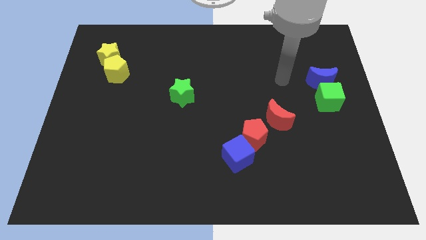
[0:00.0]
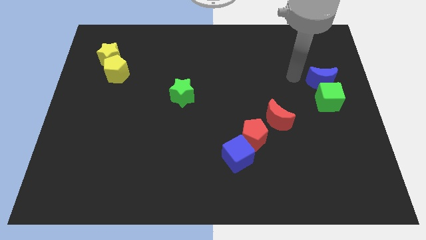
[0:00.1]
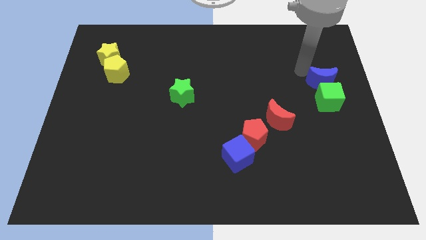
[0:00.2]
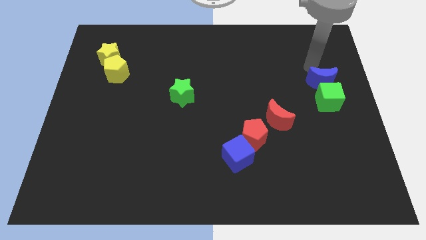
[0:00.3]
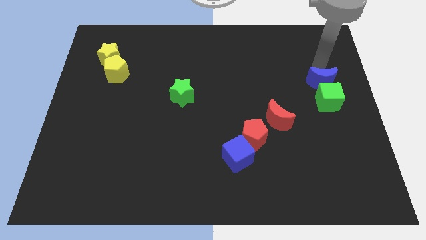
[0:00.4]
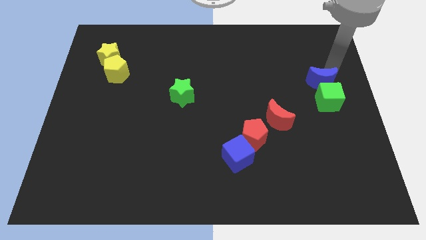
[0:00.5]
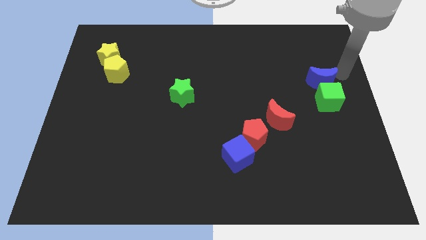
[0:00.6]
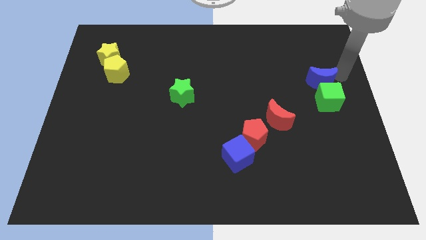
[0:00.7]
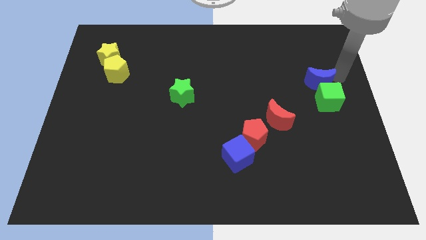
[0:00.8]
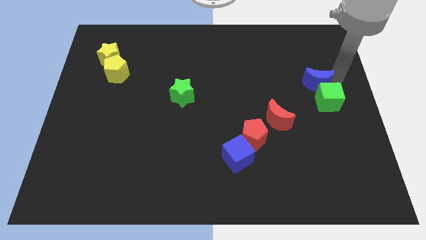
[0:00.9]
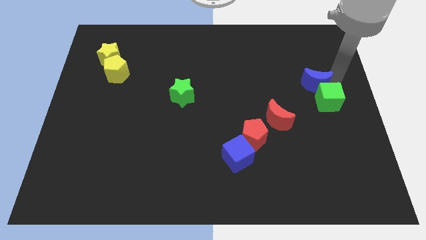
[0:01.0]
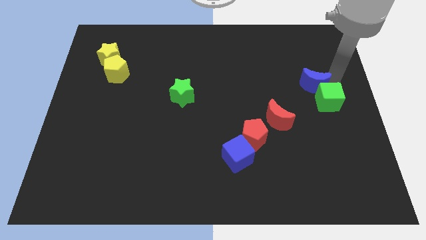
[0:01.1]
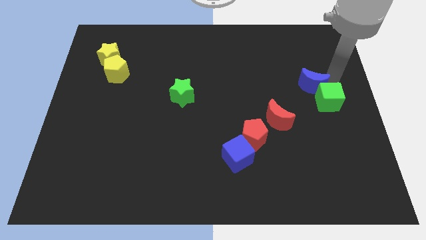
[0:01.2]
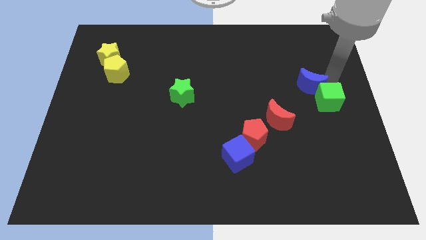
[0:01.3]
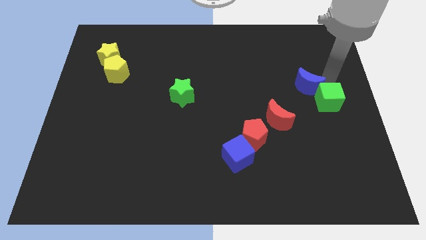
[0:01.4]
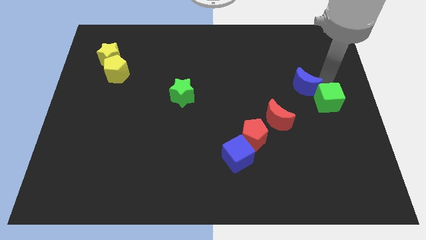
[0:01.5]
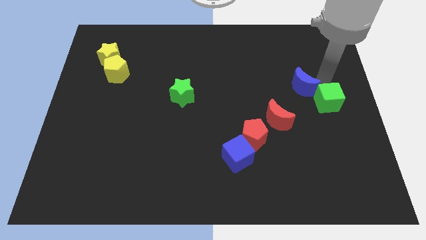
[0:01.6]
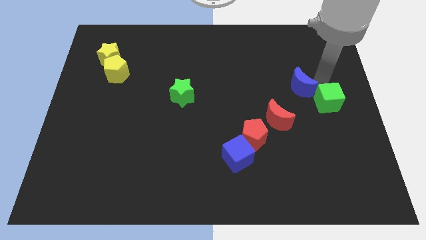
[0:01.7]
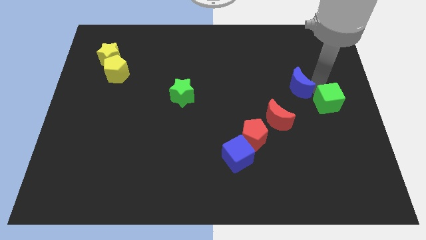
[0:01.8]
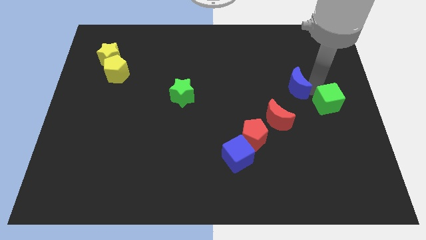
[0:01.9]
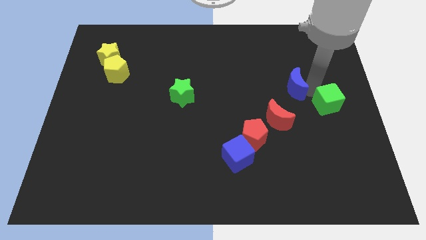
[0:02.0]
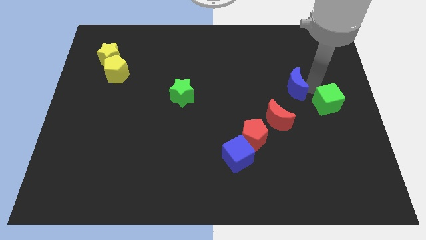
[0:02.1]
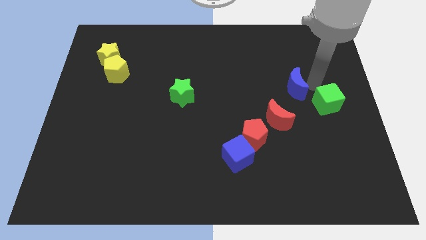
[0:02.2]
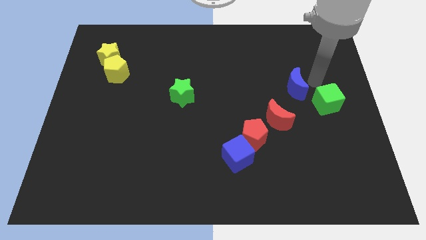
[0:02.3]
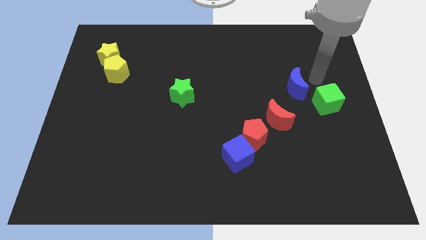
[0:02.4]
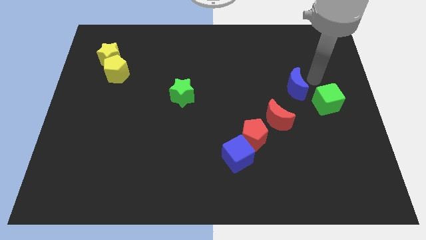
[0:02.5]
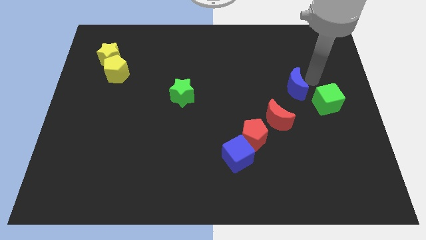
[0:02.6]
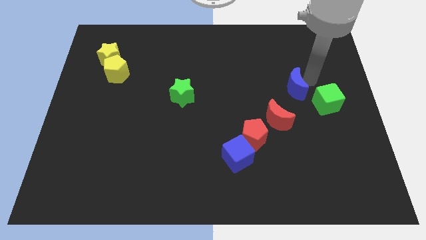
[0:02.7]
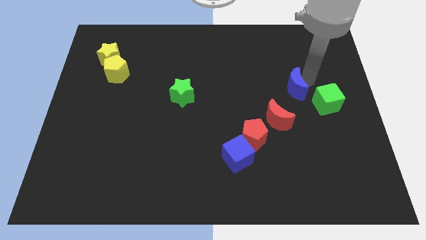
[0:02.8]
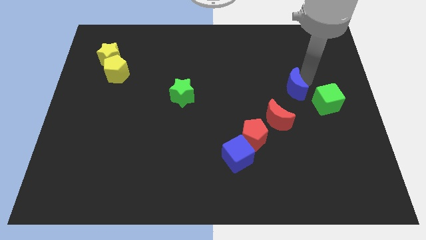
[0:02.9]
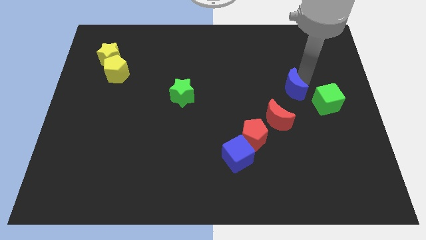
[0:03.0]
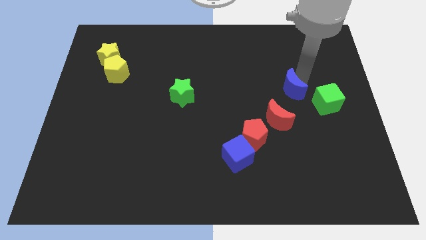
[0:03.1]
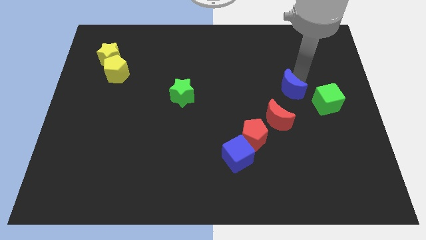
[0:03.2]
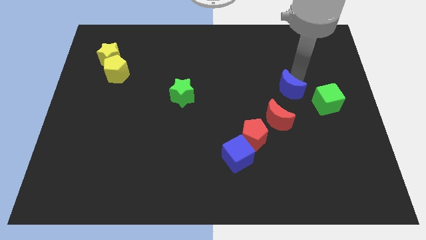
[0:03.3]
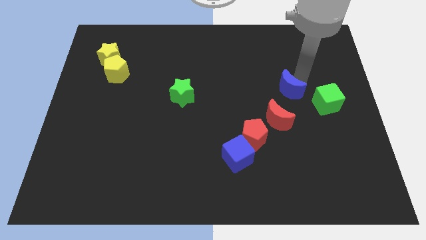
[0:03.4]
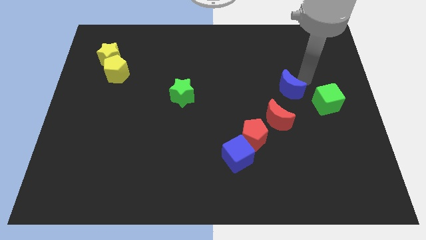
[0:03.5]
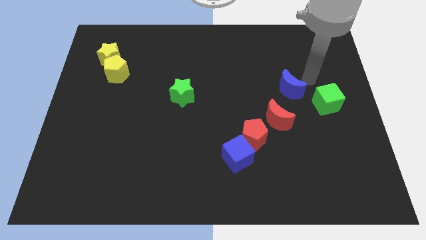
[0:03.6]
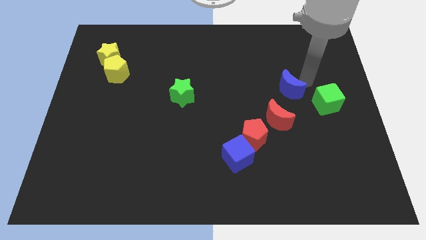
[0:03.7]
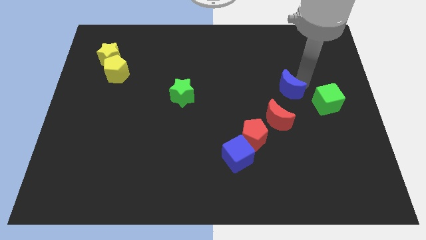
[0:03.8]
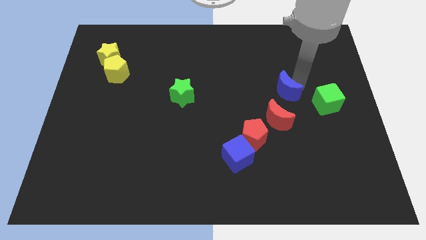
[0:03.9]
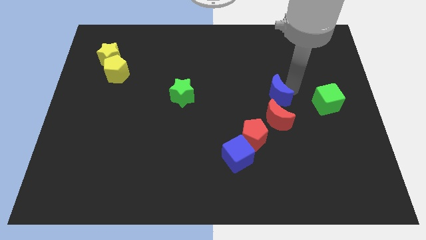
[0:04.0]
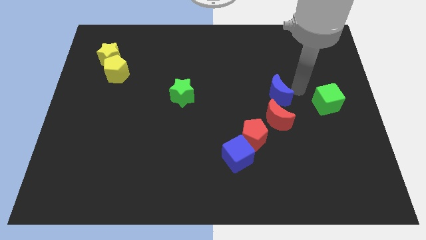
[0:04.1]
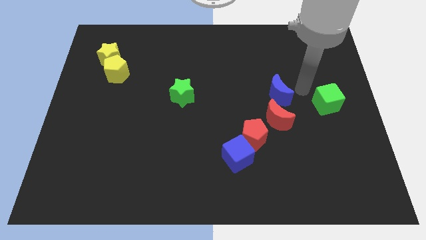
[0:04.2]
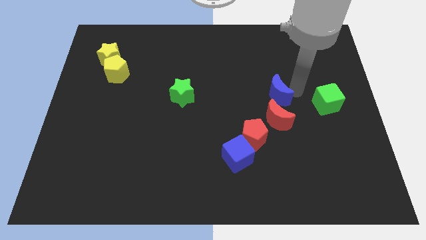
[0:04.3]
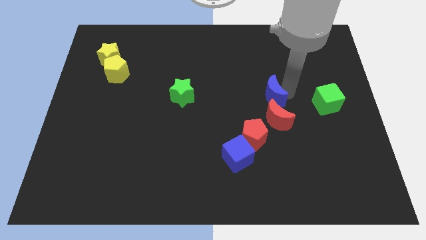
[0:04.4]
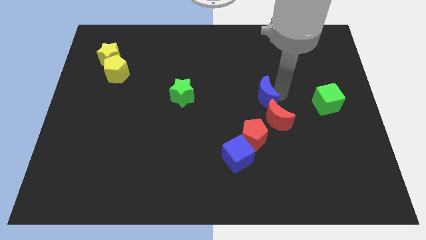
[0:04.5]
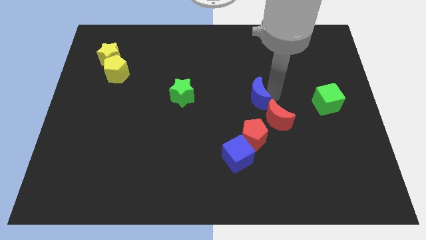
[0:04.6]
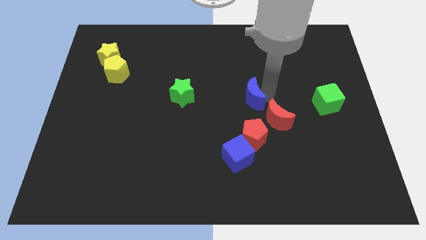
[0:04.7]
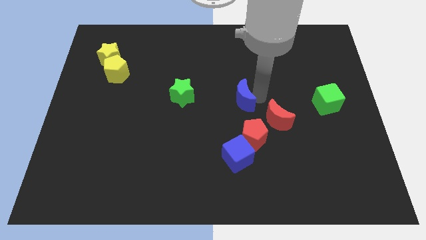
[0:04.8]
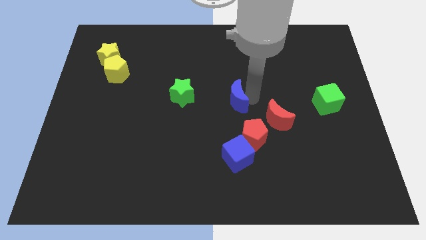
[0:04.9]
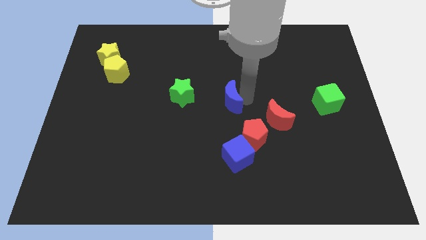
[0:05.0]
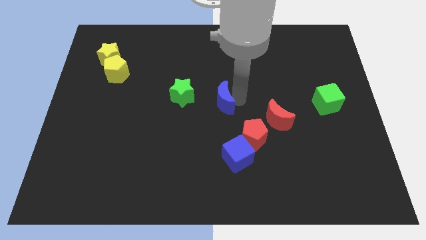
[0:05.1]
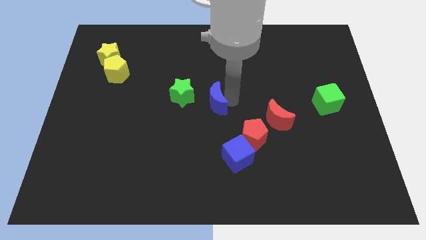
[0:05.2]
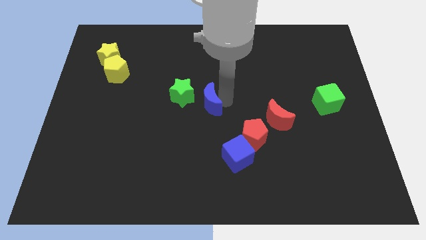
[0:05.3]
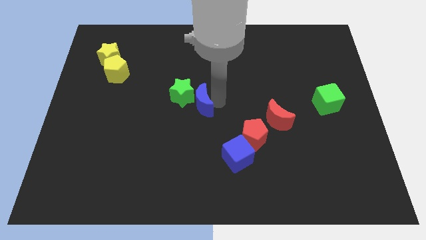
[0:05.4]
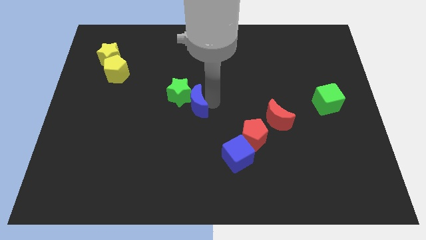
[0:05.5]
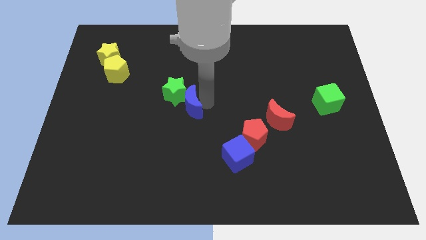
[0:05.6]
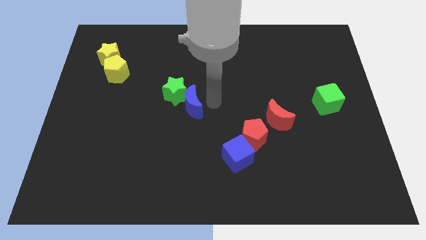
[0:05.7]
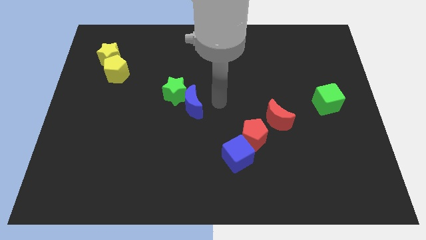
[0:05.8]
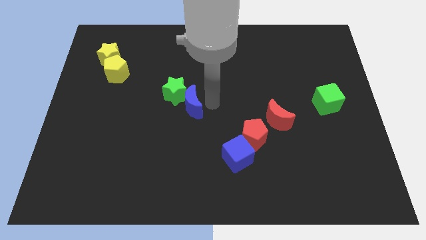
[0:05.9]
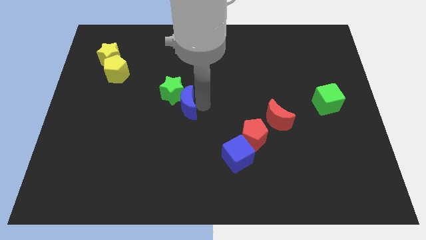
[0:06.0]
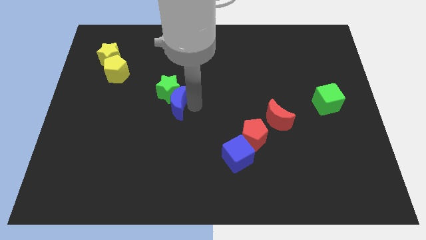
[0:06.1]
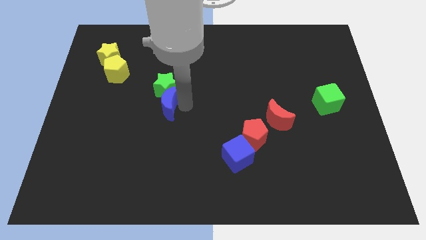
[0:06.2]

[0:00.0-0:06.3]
push the blue moon diagonally down and to the left of the green star

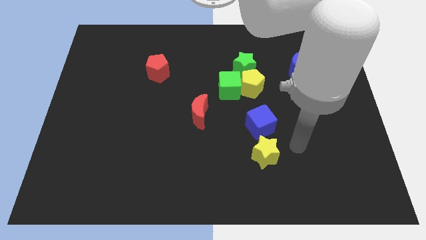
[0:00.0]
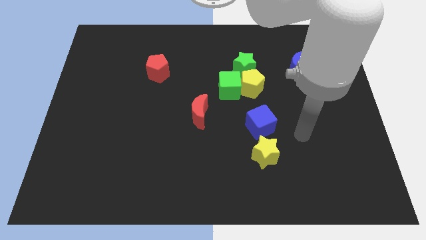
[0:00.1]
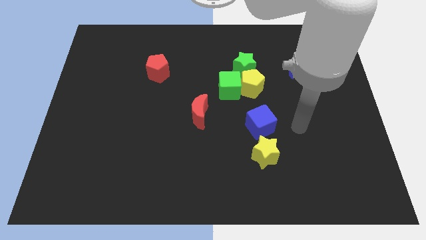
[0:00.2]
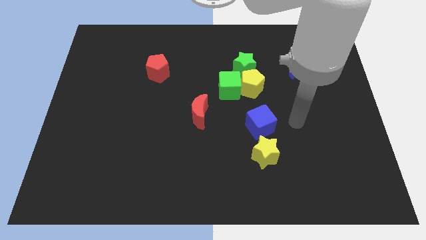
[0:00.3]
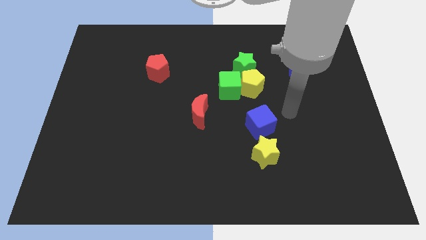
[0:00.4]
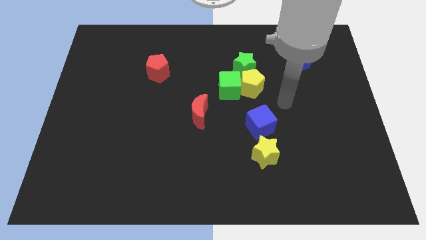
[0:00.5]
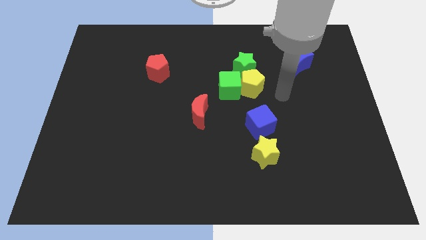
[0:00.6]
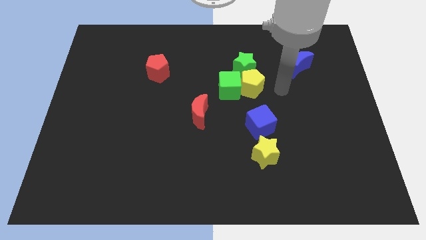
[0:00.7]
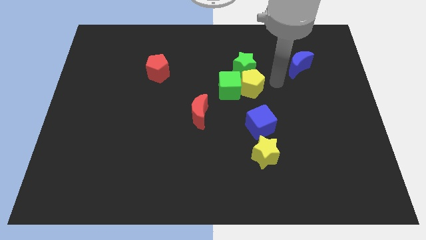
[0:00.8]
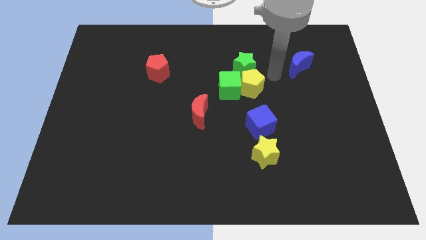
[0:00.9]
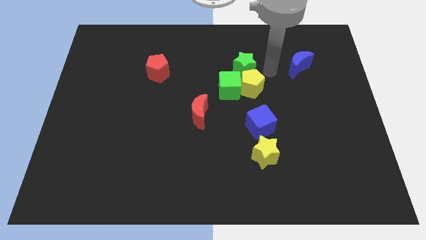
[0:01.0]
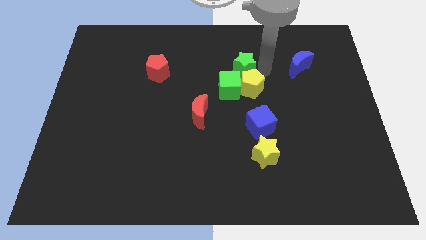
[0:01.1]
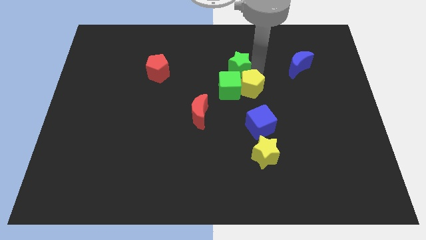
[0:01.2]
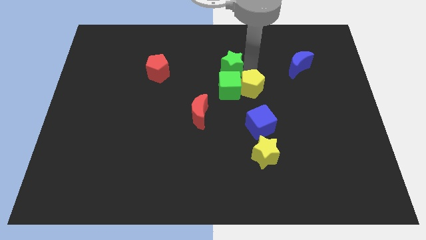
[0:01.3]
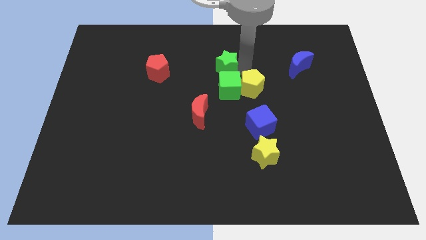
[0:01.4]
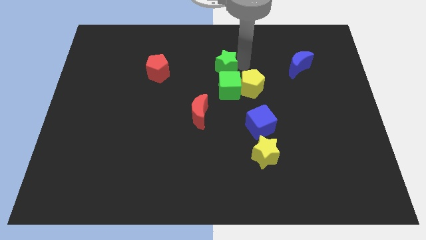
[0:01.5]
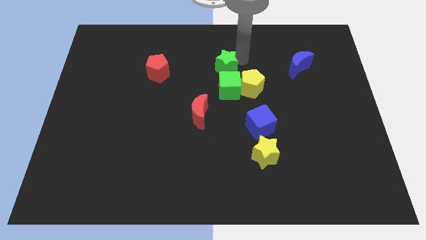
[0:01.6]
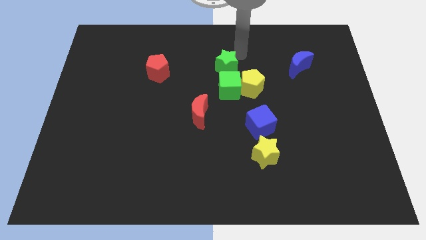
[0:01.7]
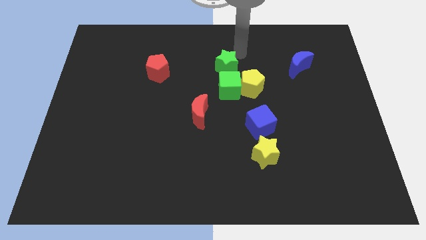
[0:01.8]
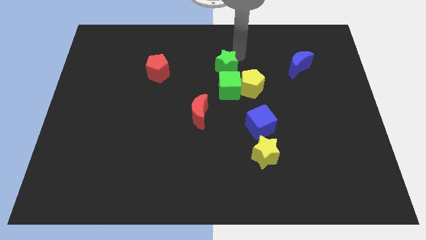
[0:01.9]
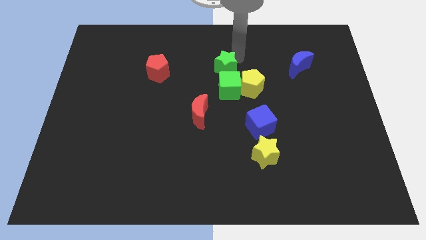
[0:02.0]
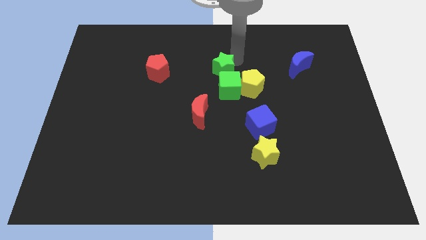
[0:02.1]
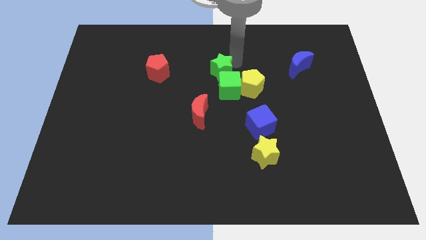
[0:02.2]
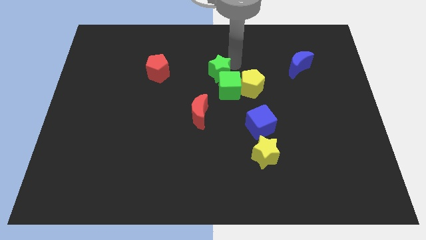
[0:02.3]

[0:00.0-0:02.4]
move the green star to the left side of the yellow pentagon
